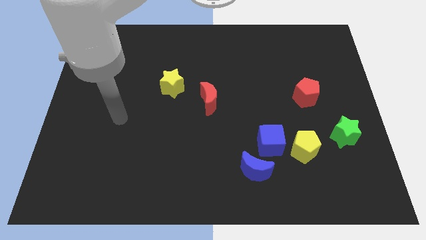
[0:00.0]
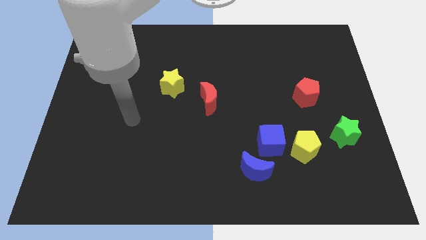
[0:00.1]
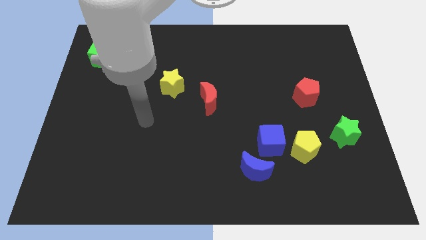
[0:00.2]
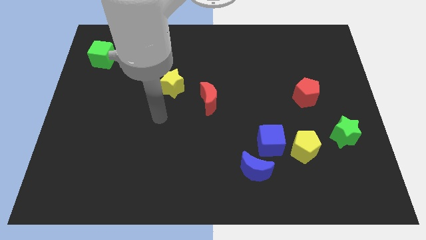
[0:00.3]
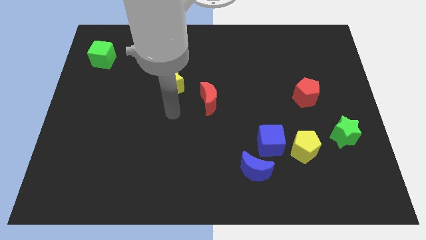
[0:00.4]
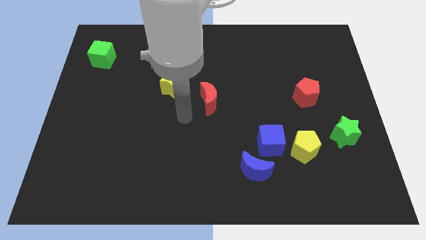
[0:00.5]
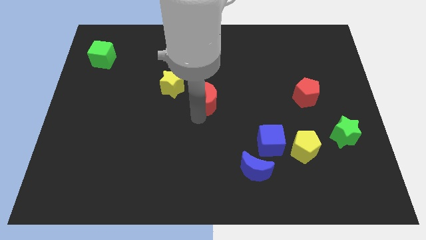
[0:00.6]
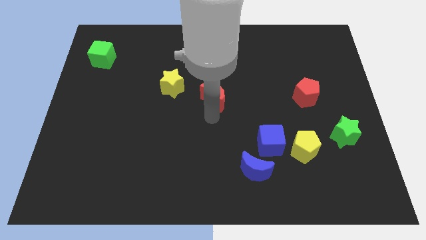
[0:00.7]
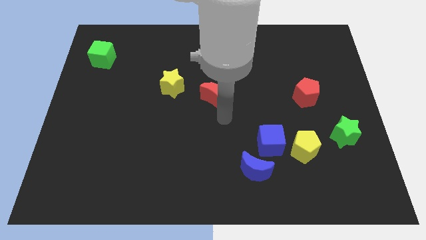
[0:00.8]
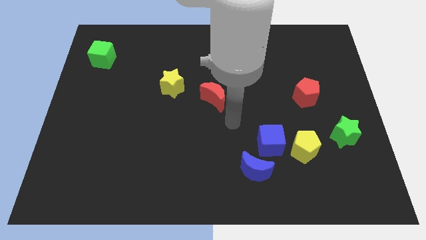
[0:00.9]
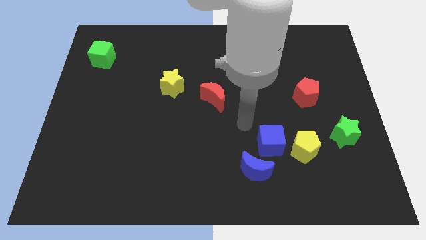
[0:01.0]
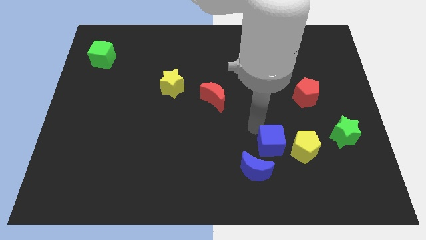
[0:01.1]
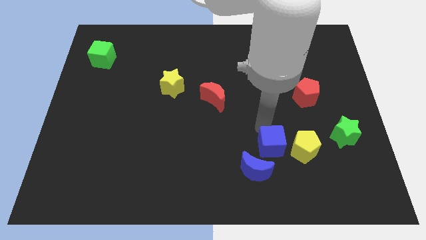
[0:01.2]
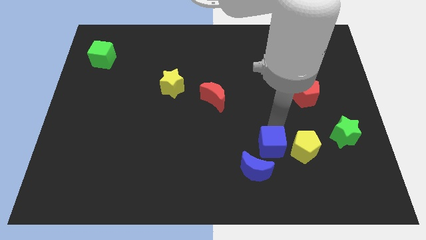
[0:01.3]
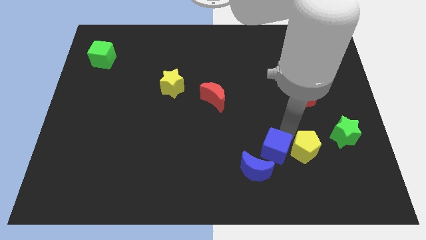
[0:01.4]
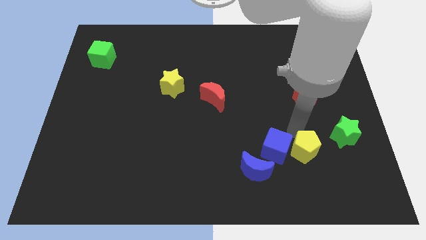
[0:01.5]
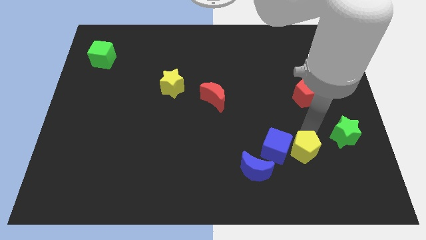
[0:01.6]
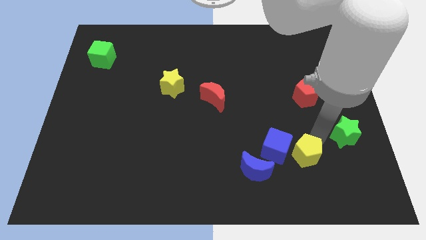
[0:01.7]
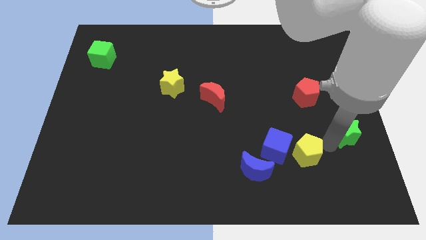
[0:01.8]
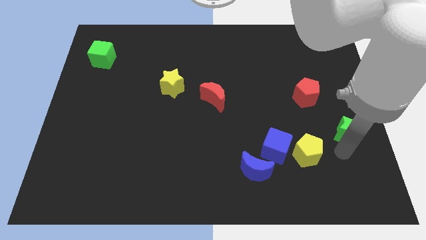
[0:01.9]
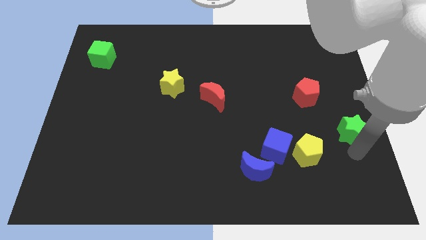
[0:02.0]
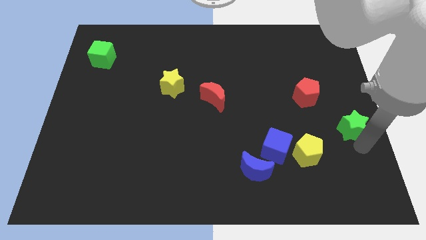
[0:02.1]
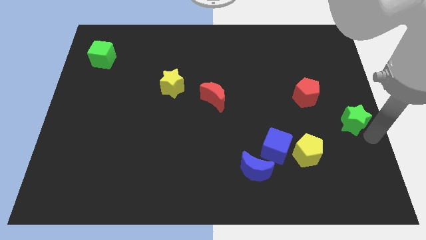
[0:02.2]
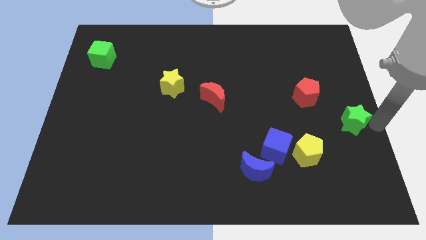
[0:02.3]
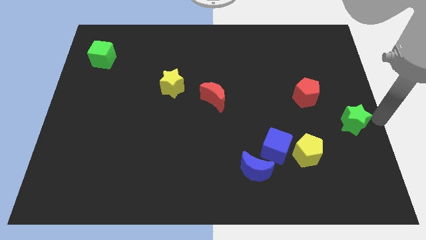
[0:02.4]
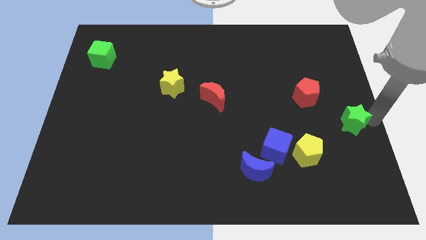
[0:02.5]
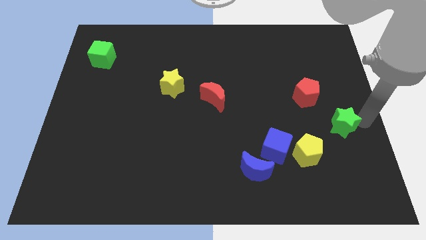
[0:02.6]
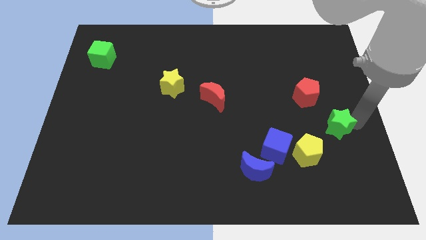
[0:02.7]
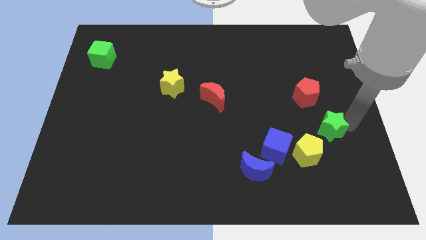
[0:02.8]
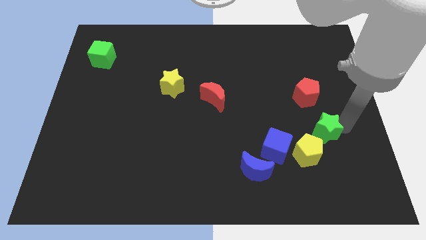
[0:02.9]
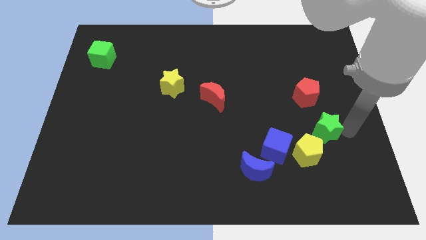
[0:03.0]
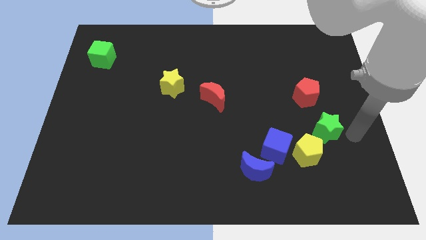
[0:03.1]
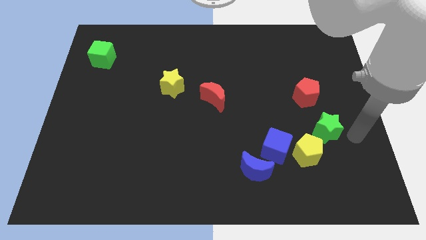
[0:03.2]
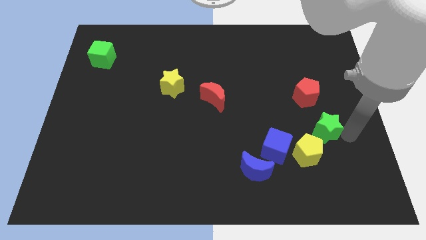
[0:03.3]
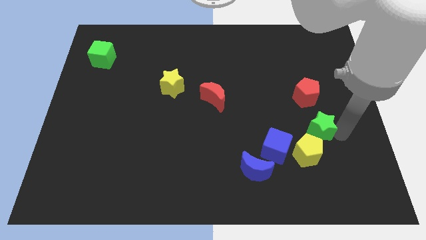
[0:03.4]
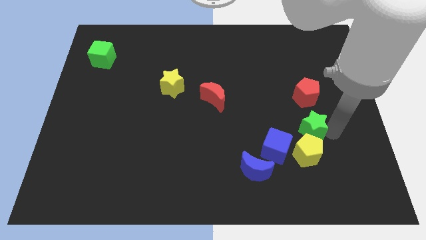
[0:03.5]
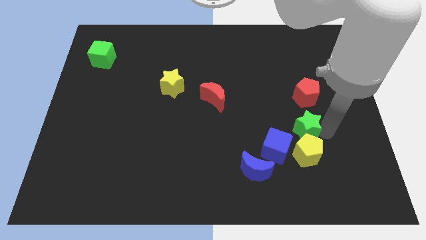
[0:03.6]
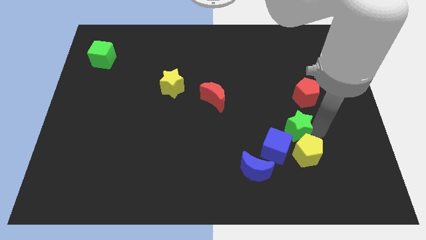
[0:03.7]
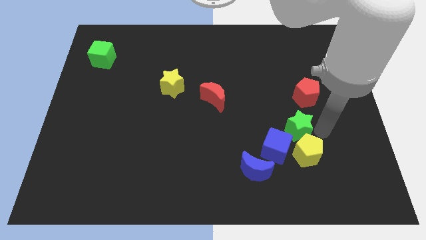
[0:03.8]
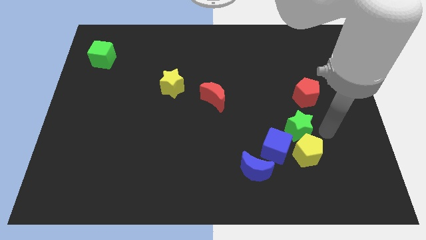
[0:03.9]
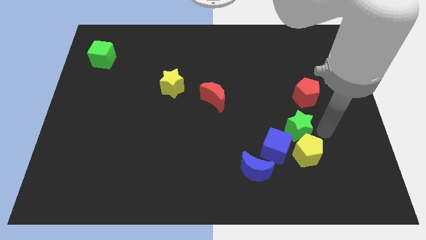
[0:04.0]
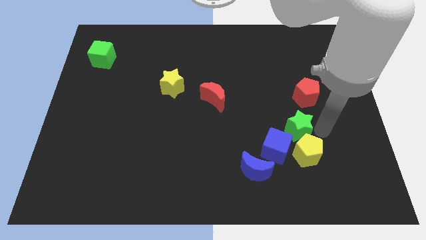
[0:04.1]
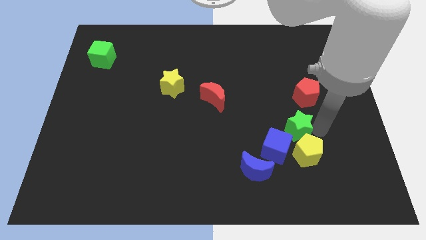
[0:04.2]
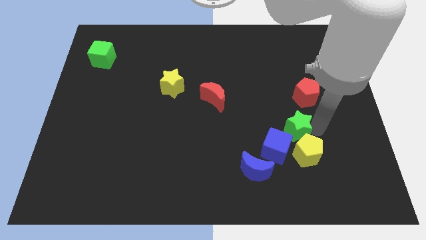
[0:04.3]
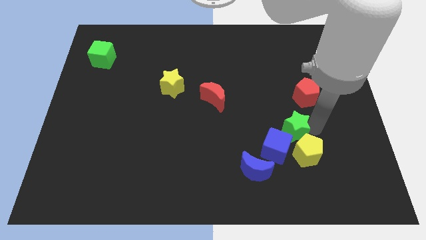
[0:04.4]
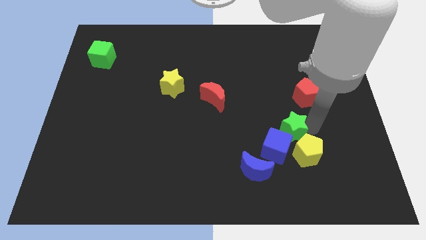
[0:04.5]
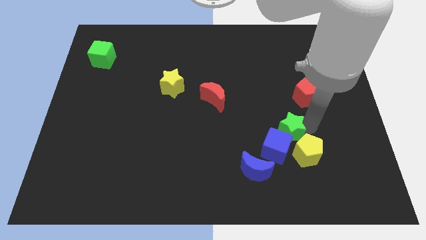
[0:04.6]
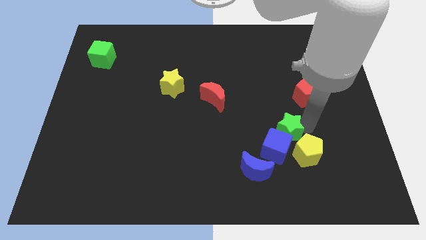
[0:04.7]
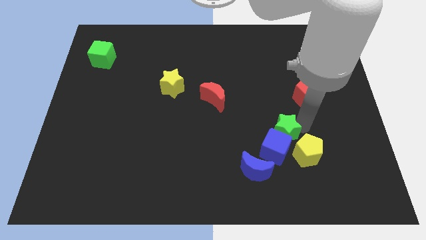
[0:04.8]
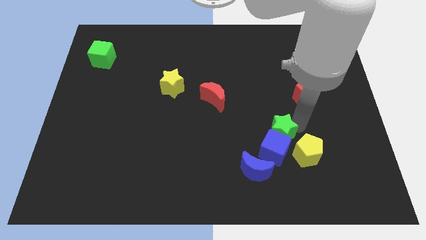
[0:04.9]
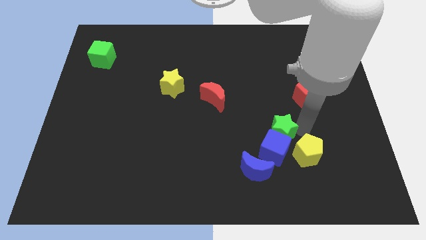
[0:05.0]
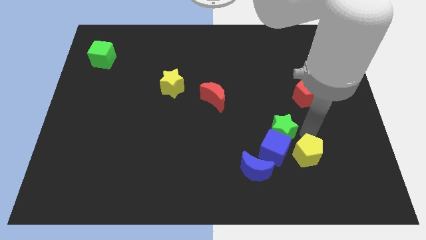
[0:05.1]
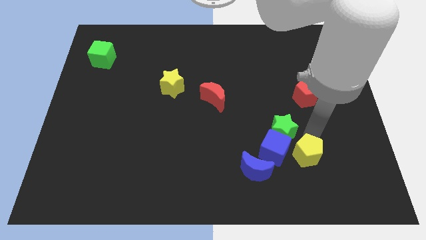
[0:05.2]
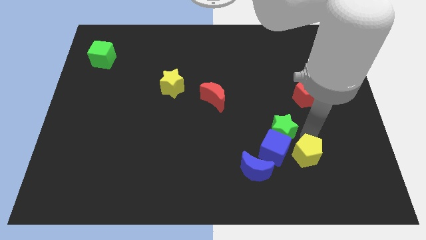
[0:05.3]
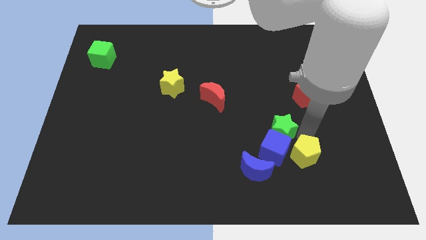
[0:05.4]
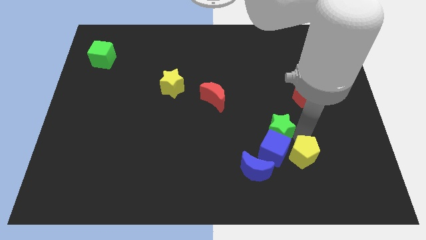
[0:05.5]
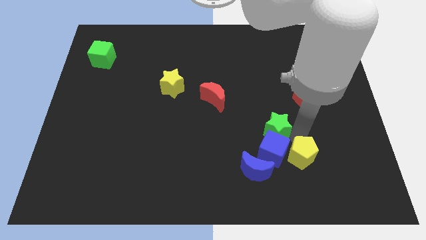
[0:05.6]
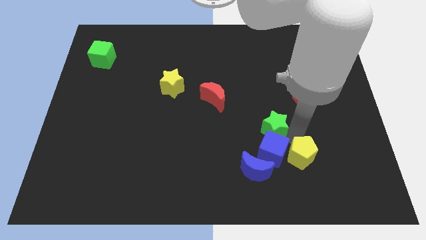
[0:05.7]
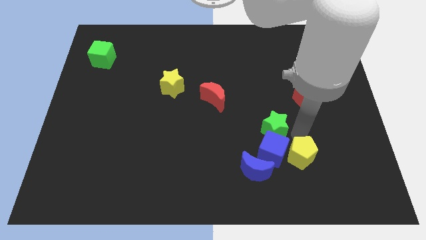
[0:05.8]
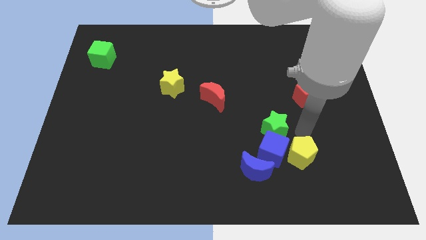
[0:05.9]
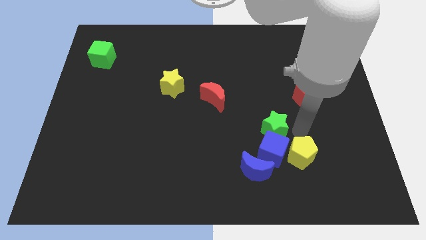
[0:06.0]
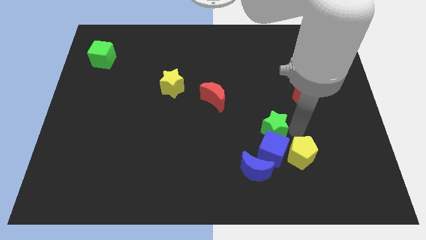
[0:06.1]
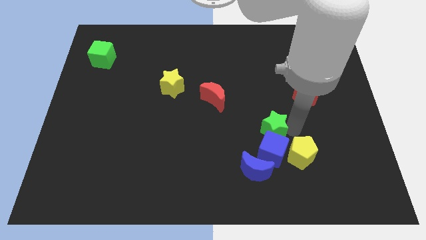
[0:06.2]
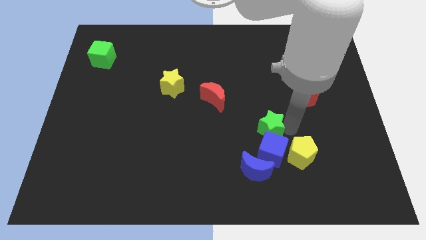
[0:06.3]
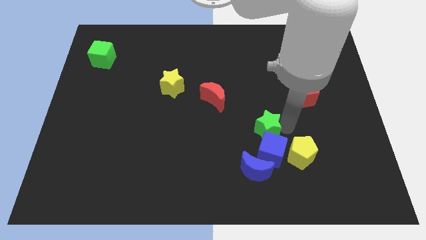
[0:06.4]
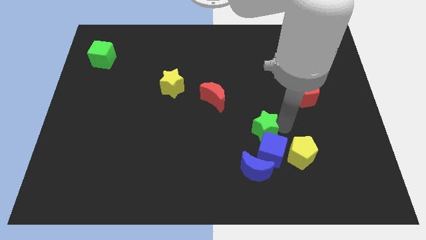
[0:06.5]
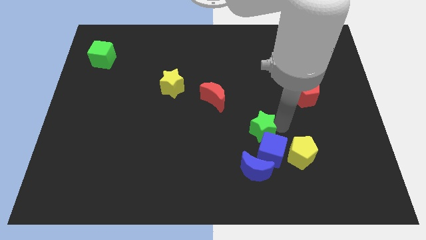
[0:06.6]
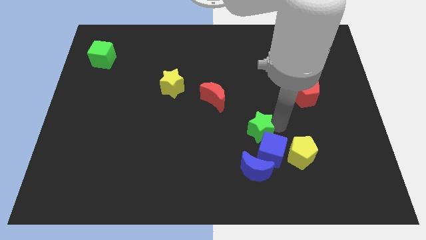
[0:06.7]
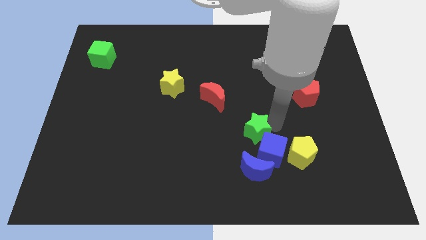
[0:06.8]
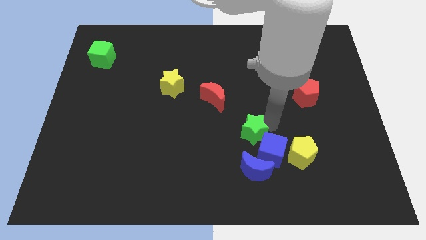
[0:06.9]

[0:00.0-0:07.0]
push the green star to the left

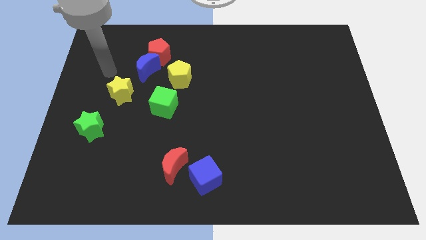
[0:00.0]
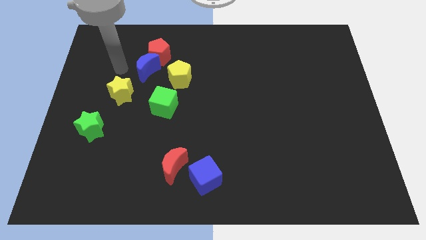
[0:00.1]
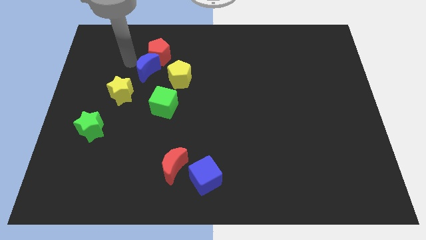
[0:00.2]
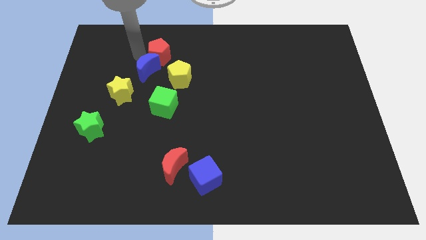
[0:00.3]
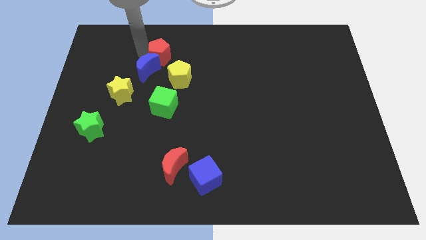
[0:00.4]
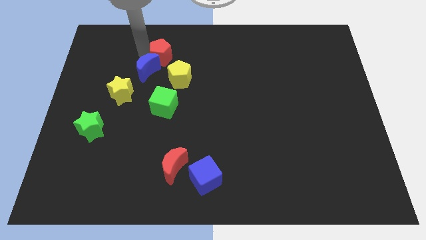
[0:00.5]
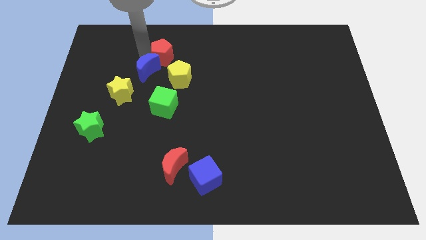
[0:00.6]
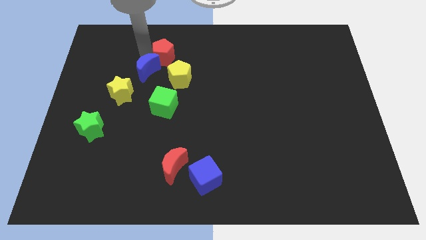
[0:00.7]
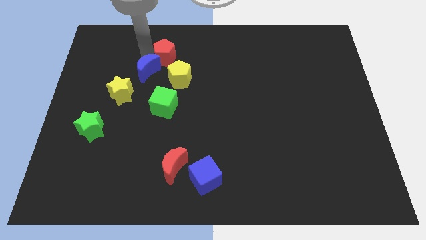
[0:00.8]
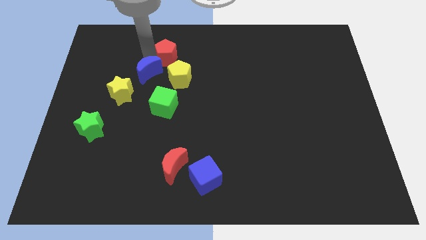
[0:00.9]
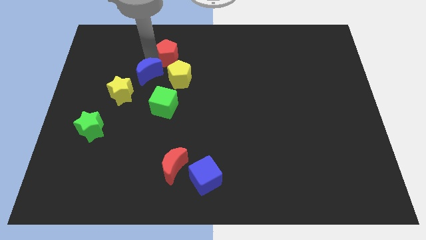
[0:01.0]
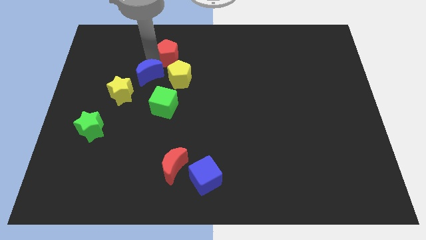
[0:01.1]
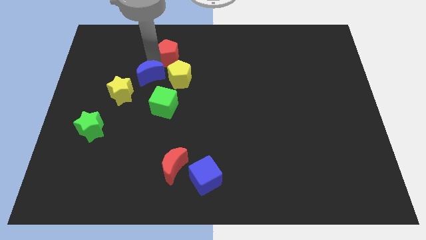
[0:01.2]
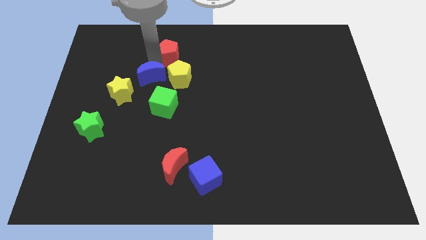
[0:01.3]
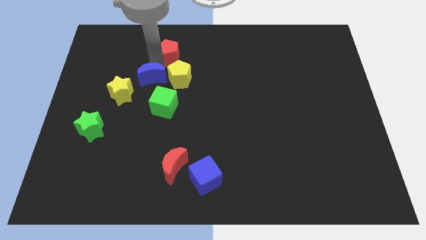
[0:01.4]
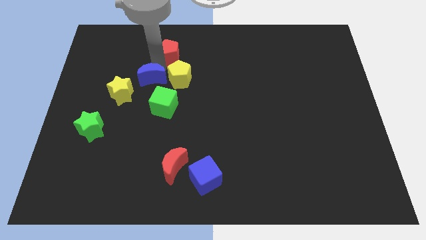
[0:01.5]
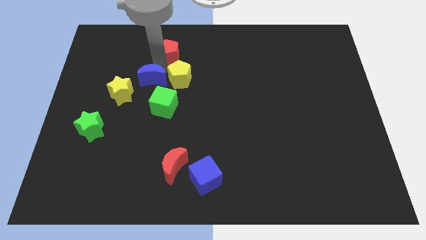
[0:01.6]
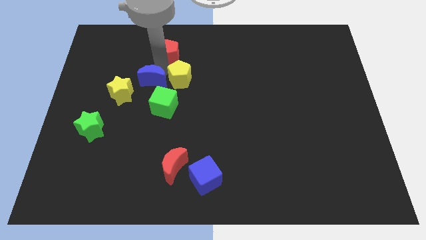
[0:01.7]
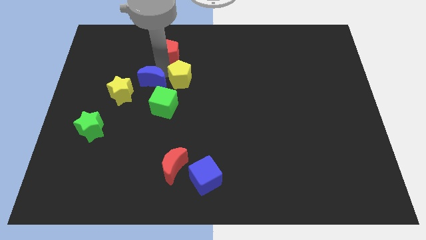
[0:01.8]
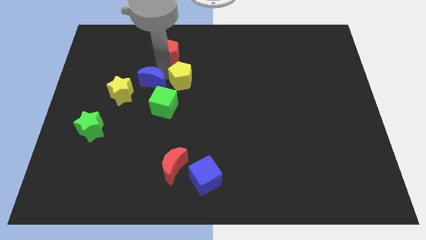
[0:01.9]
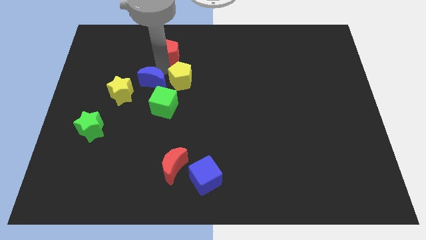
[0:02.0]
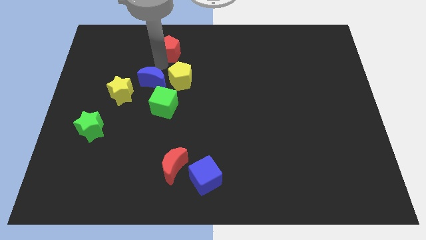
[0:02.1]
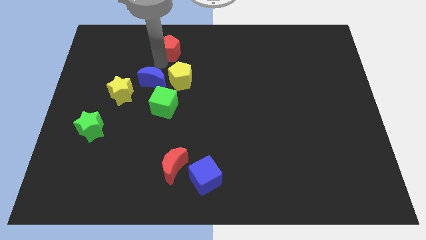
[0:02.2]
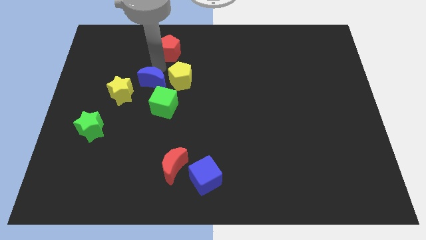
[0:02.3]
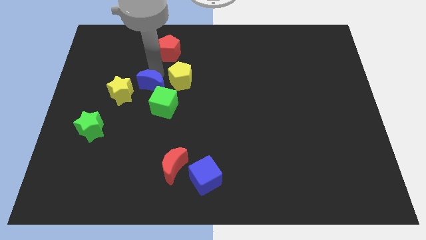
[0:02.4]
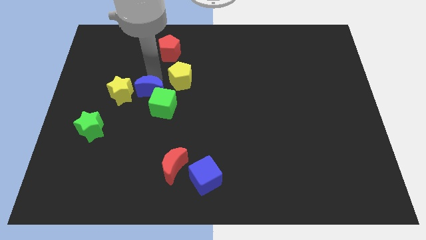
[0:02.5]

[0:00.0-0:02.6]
move the blue moon slightly downwards
